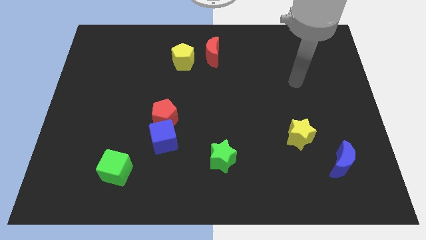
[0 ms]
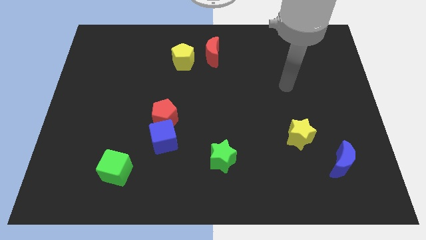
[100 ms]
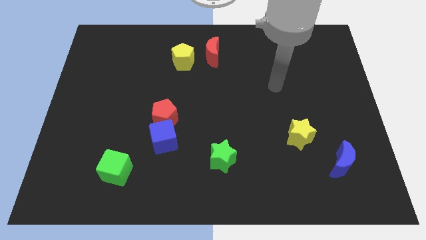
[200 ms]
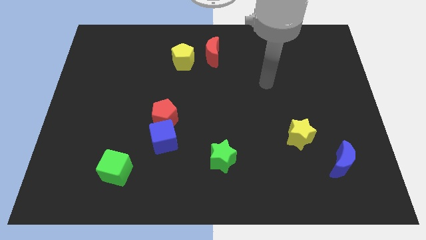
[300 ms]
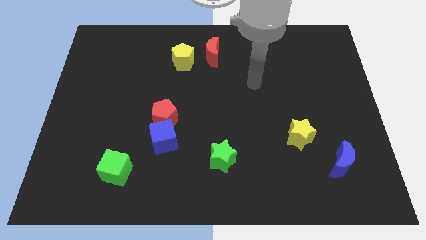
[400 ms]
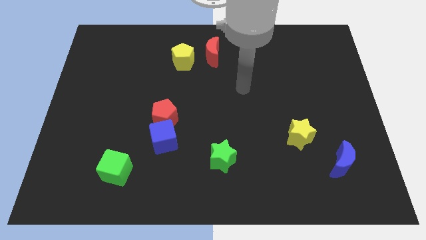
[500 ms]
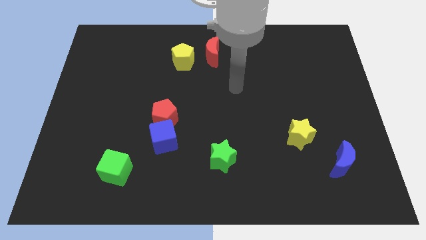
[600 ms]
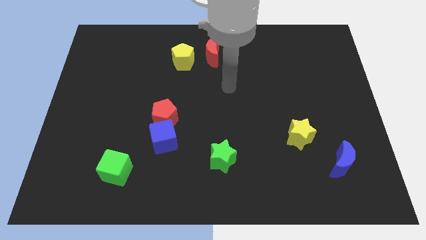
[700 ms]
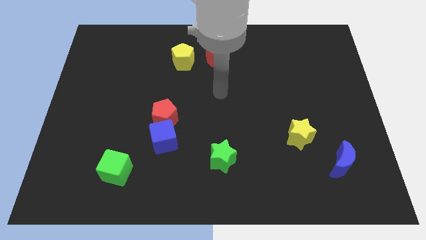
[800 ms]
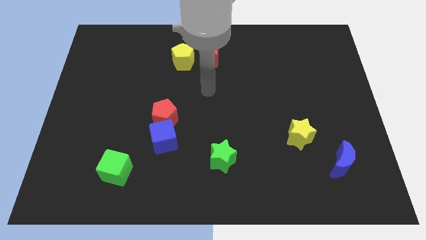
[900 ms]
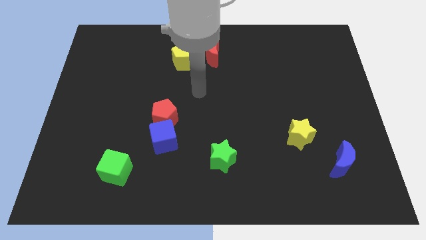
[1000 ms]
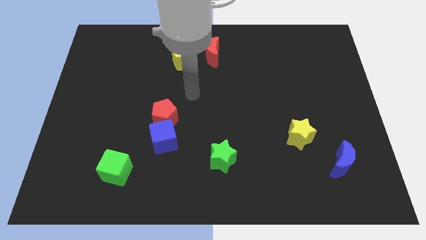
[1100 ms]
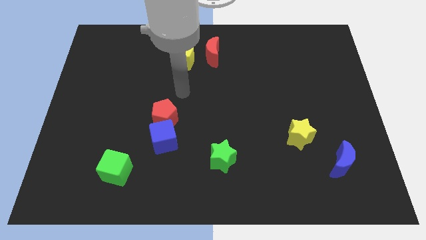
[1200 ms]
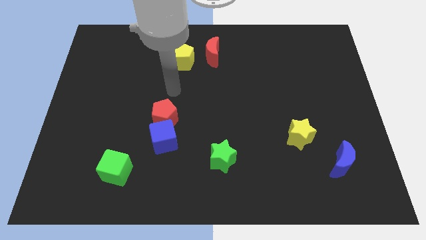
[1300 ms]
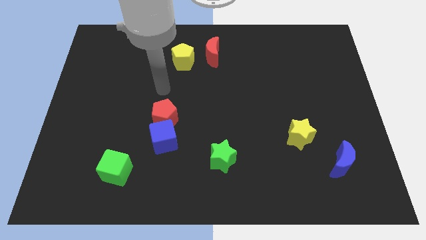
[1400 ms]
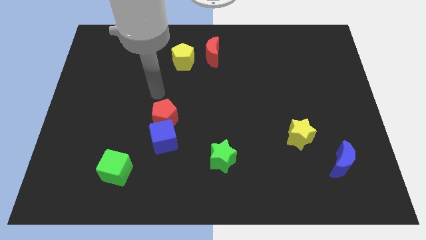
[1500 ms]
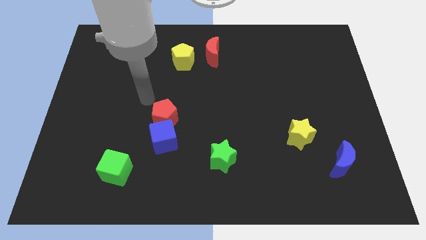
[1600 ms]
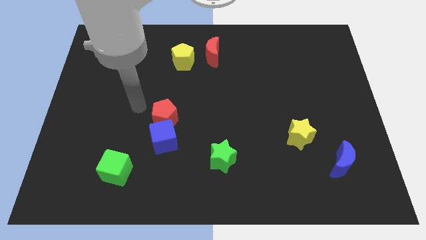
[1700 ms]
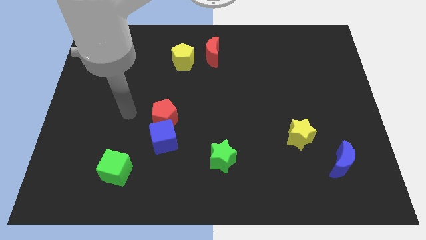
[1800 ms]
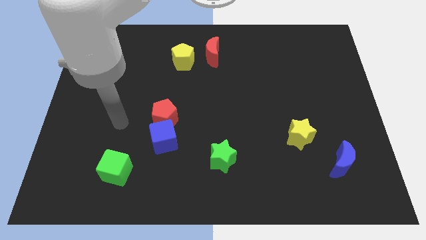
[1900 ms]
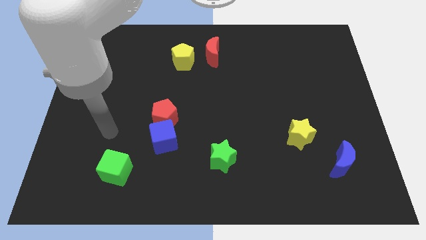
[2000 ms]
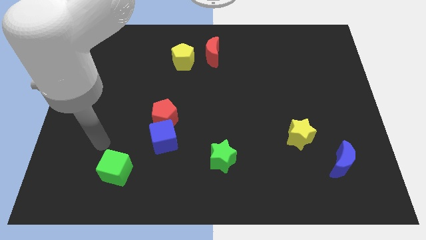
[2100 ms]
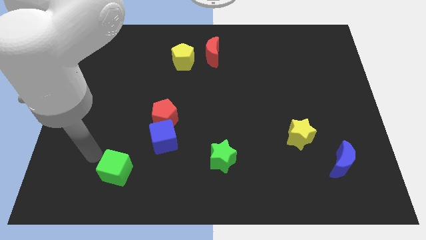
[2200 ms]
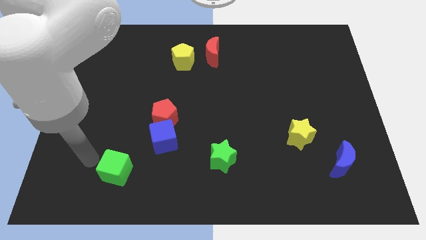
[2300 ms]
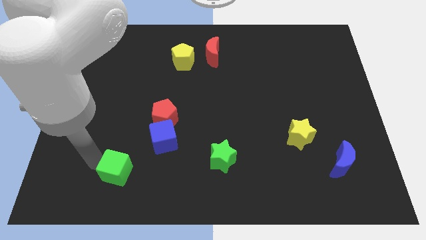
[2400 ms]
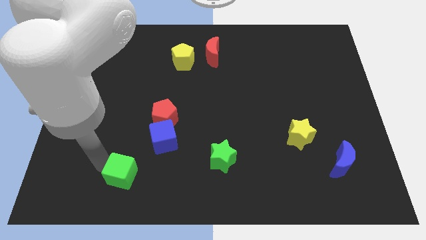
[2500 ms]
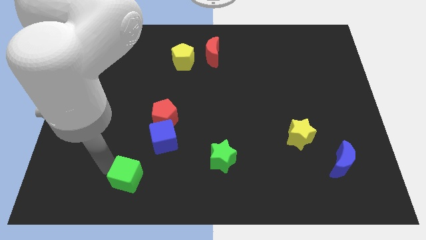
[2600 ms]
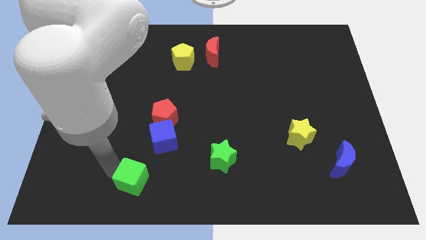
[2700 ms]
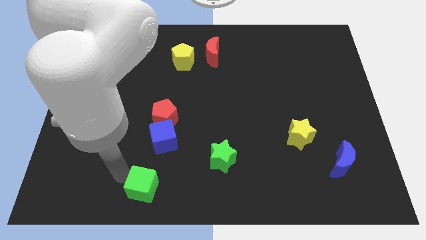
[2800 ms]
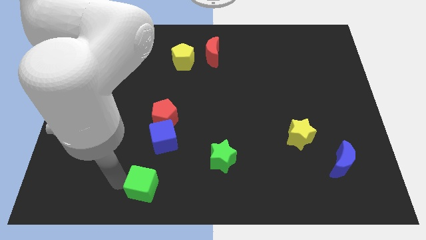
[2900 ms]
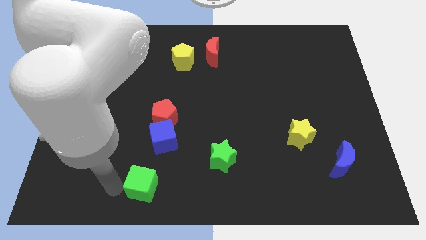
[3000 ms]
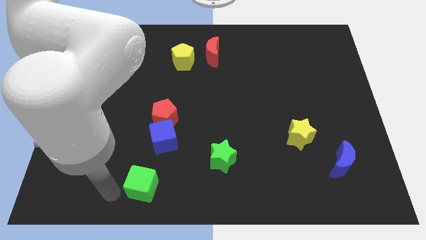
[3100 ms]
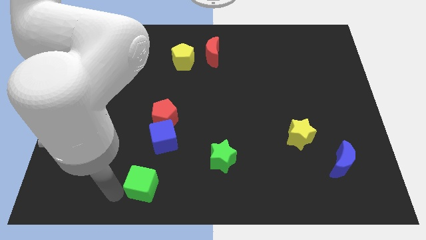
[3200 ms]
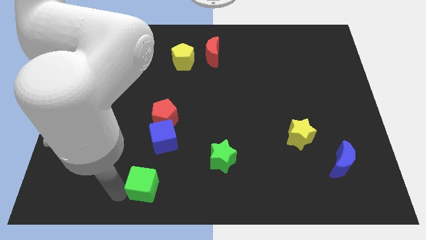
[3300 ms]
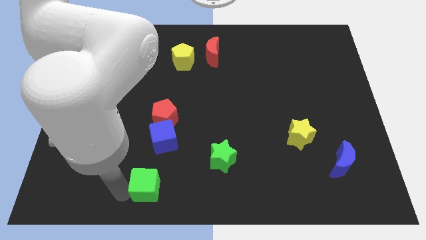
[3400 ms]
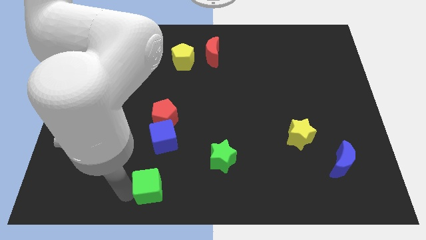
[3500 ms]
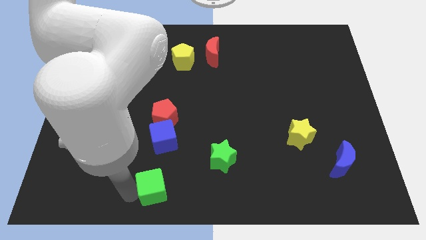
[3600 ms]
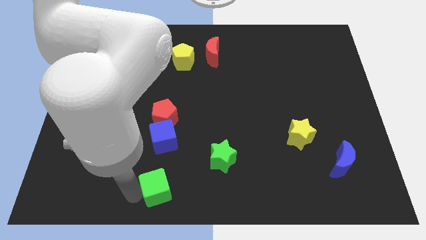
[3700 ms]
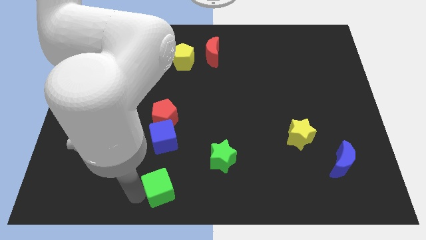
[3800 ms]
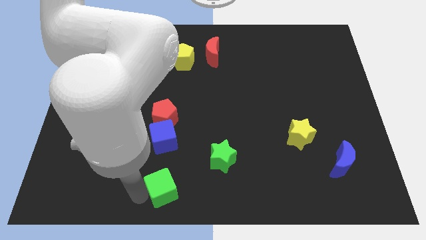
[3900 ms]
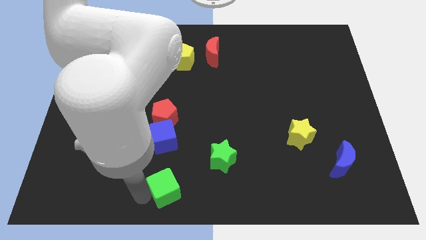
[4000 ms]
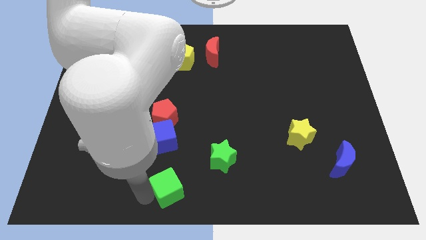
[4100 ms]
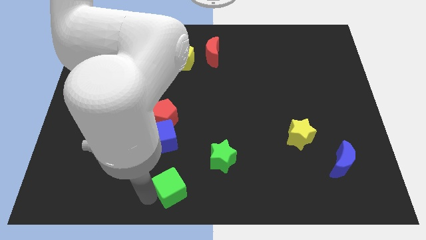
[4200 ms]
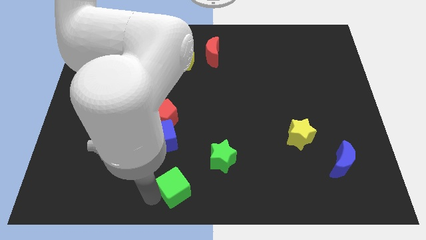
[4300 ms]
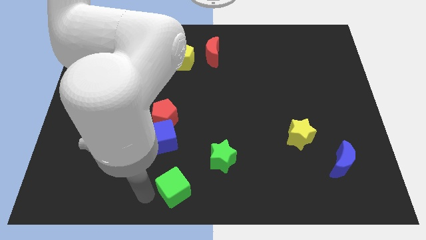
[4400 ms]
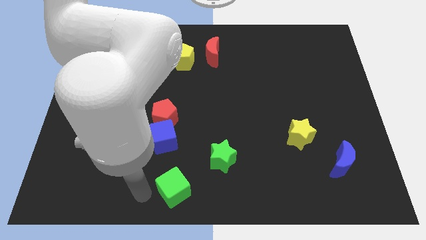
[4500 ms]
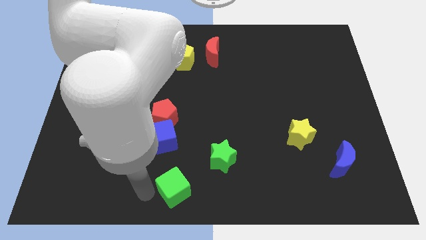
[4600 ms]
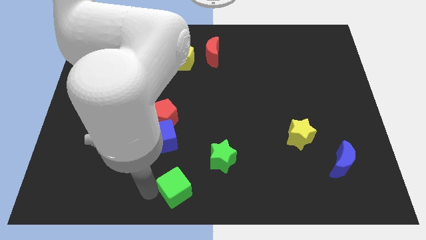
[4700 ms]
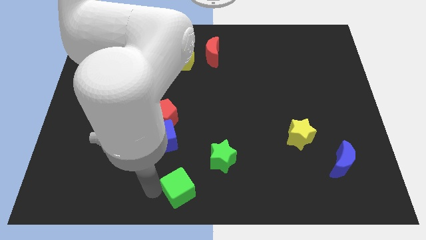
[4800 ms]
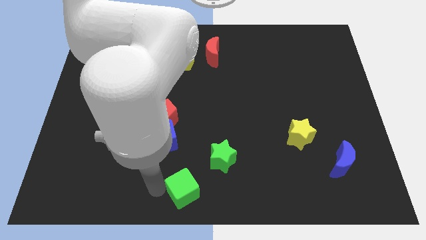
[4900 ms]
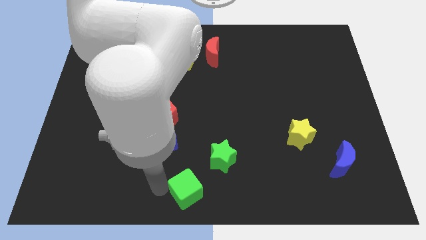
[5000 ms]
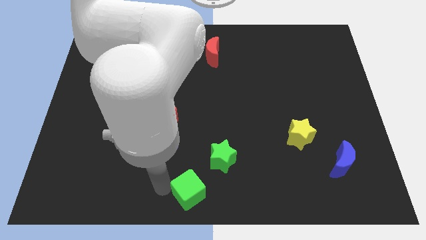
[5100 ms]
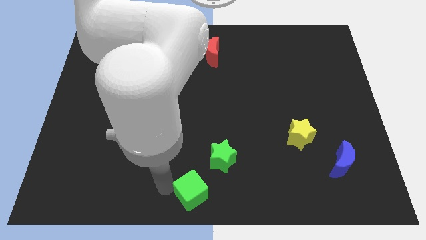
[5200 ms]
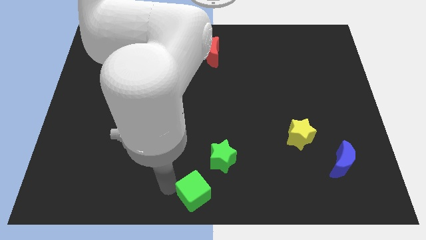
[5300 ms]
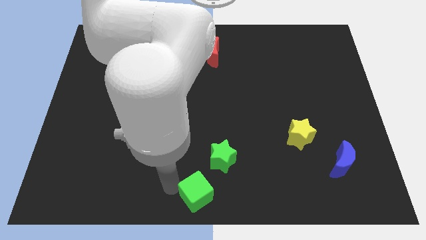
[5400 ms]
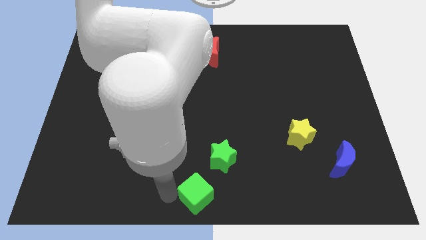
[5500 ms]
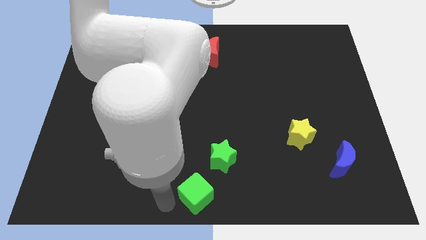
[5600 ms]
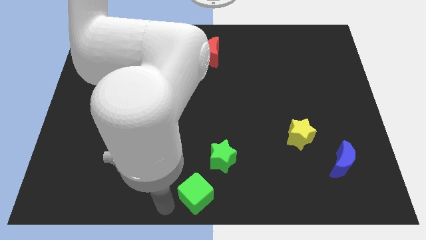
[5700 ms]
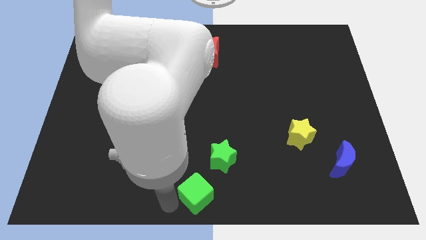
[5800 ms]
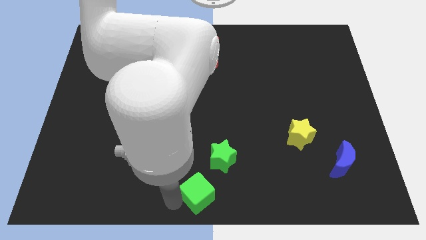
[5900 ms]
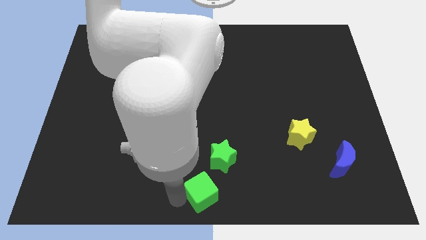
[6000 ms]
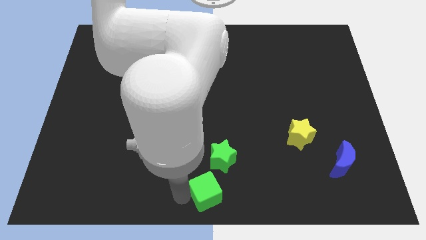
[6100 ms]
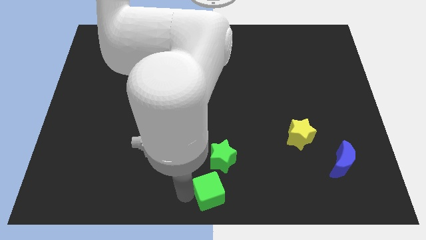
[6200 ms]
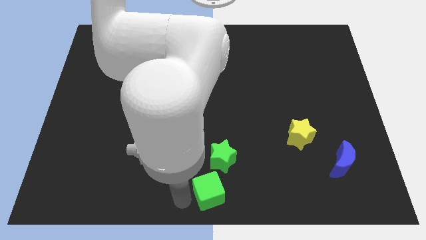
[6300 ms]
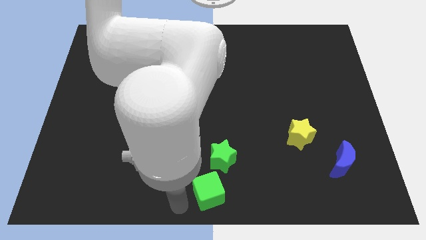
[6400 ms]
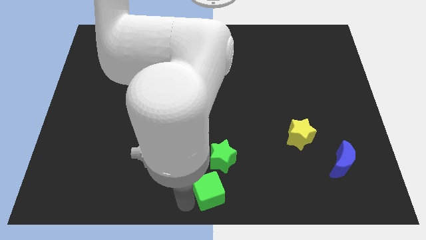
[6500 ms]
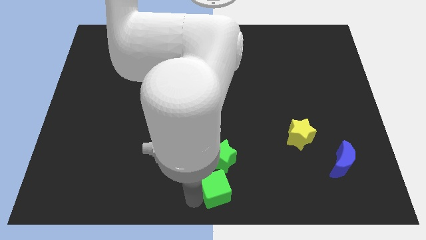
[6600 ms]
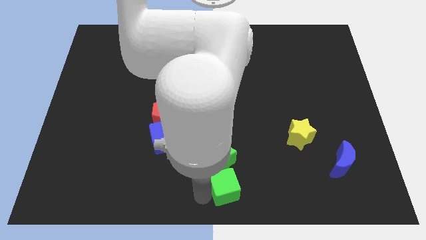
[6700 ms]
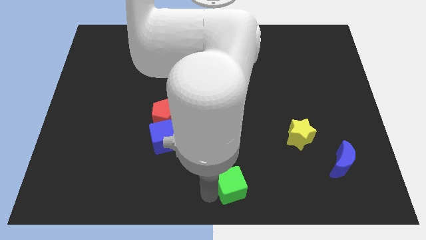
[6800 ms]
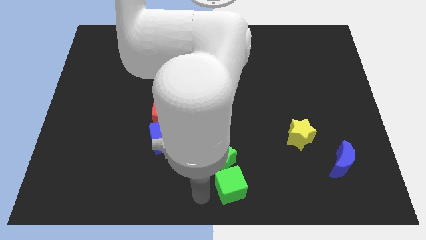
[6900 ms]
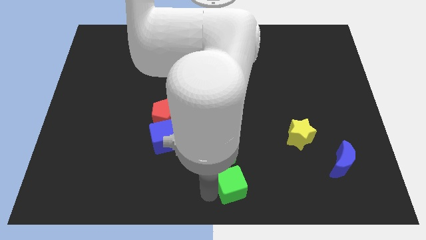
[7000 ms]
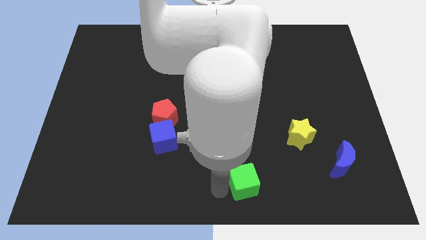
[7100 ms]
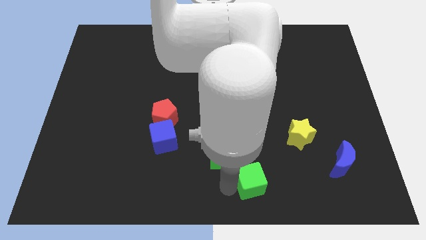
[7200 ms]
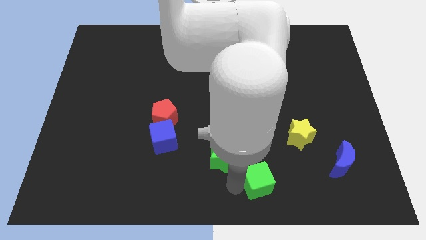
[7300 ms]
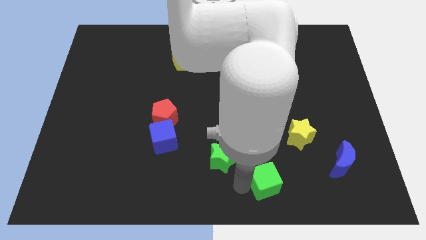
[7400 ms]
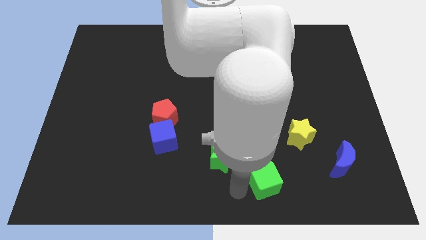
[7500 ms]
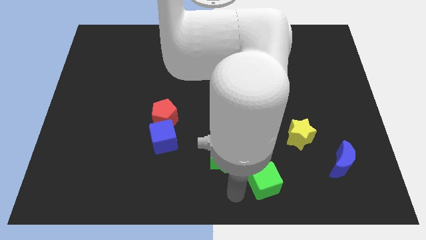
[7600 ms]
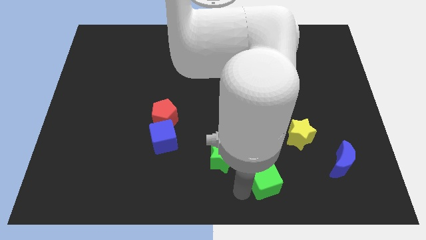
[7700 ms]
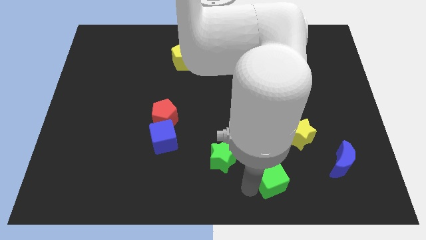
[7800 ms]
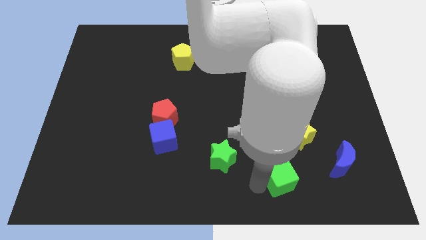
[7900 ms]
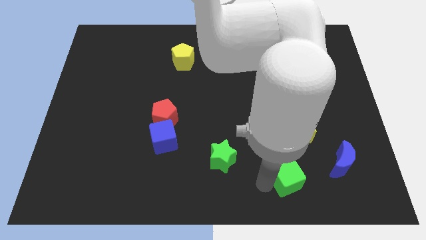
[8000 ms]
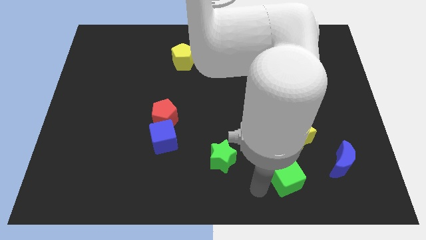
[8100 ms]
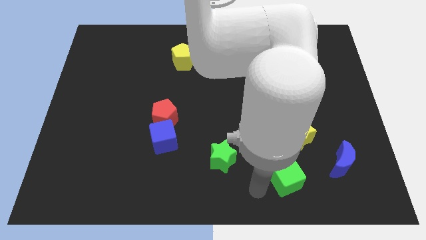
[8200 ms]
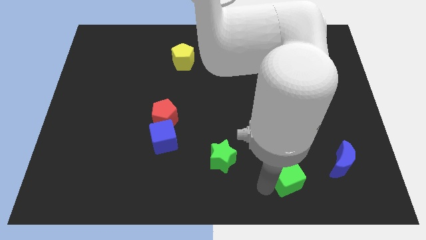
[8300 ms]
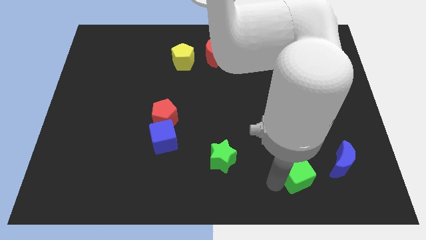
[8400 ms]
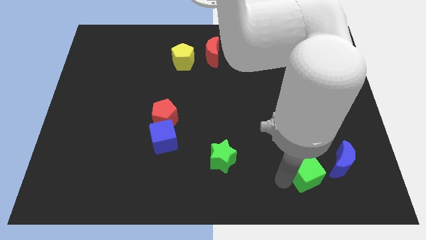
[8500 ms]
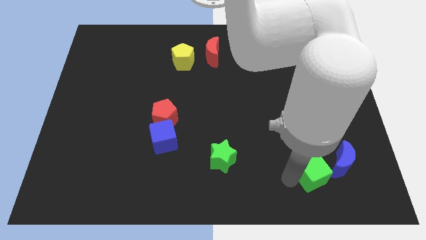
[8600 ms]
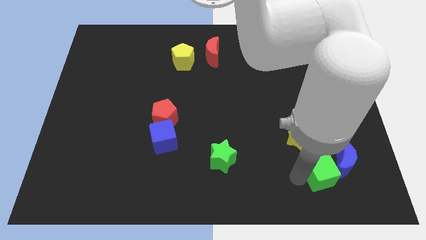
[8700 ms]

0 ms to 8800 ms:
push the green cube to the blue moon
